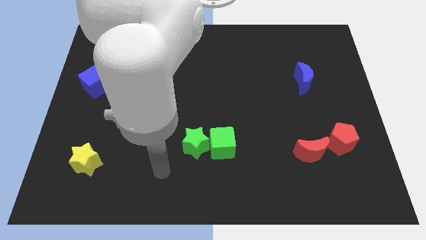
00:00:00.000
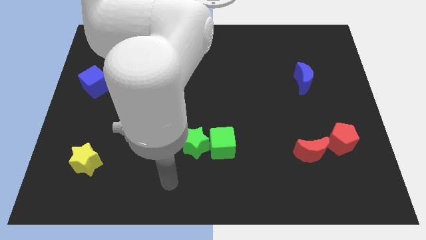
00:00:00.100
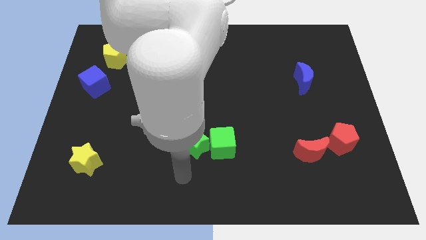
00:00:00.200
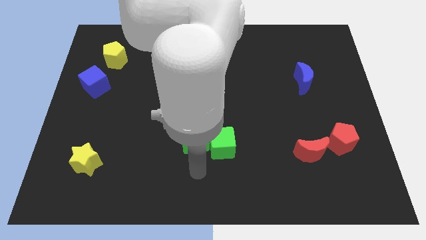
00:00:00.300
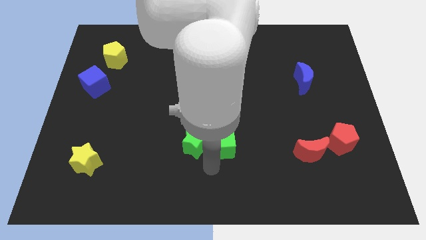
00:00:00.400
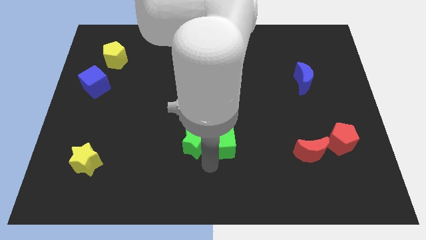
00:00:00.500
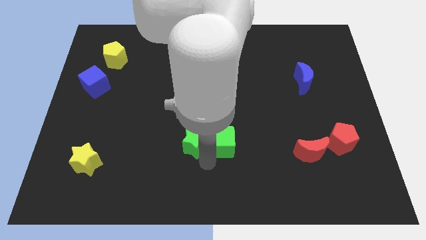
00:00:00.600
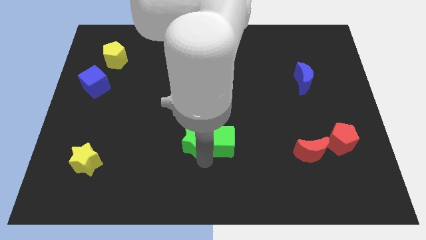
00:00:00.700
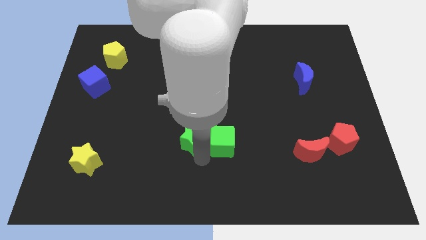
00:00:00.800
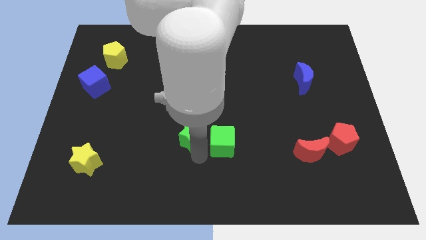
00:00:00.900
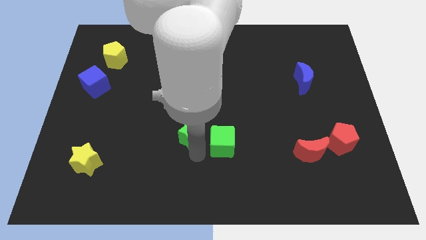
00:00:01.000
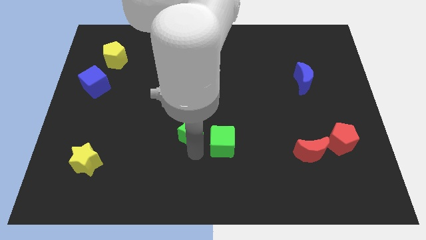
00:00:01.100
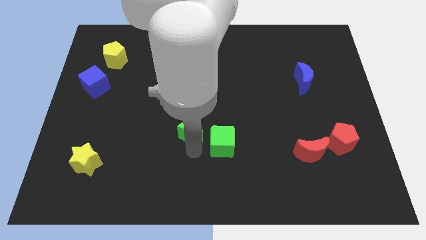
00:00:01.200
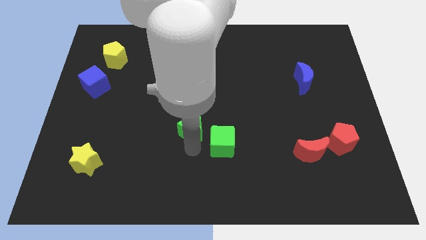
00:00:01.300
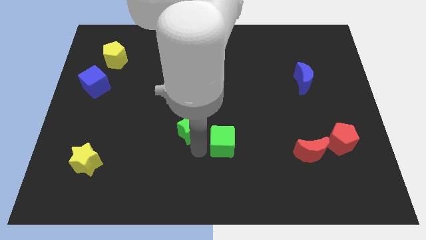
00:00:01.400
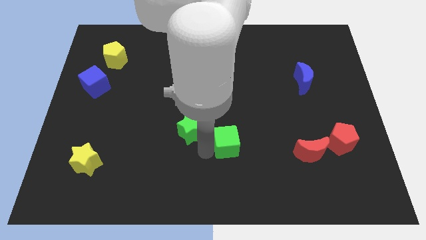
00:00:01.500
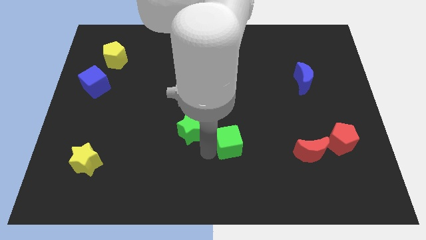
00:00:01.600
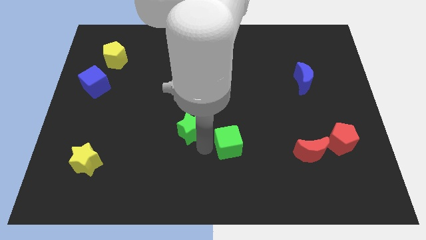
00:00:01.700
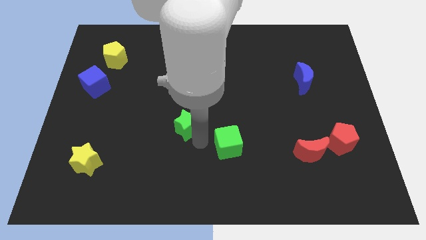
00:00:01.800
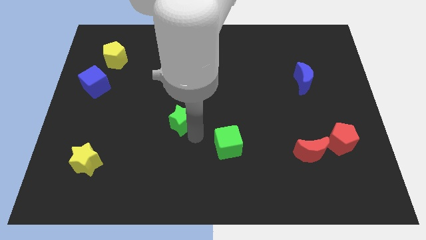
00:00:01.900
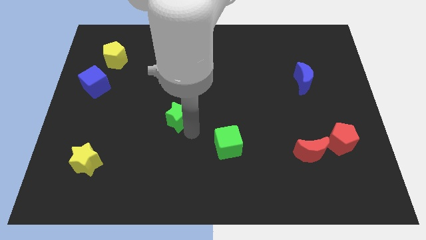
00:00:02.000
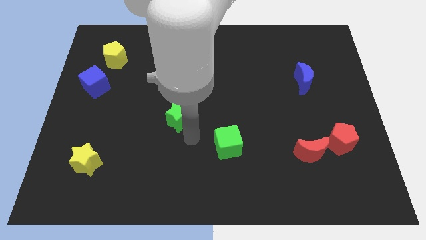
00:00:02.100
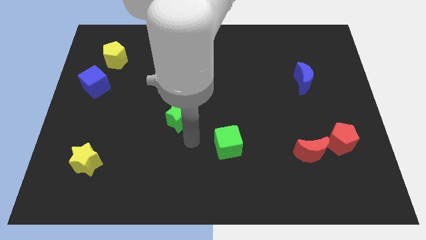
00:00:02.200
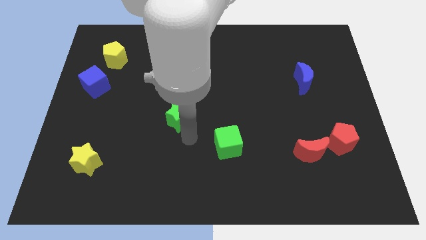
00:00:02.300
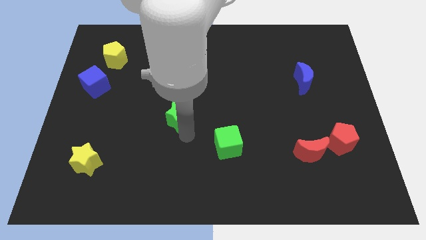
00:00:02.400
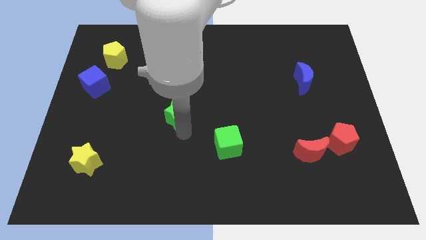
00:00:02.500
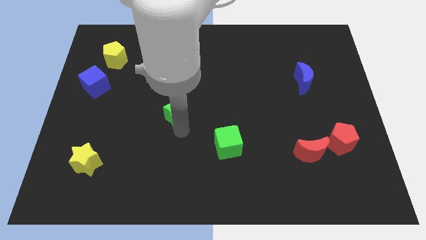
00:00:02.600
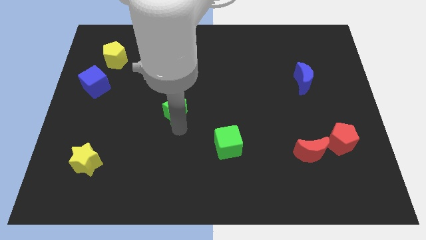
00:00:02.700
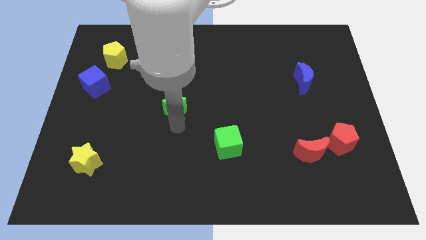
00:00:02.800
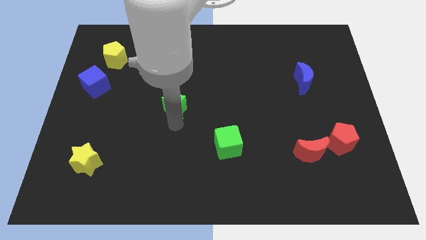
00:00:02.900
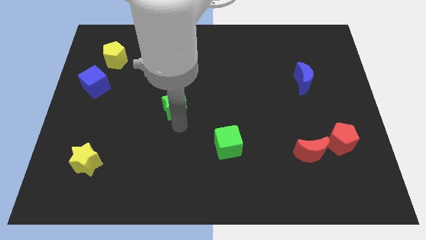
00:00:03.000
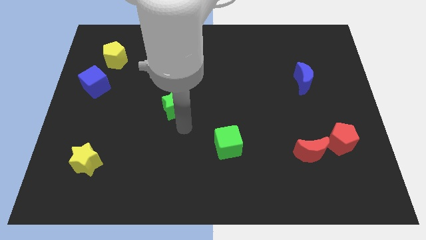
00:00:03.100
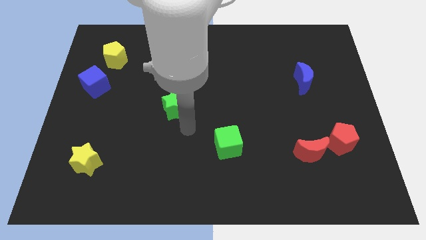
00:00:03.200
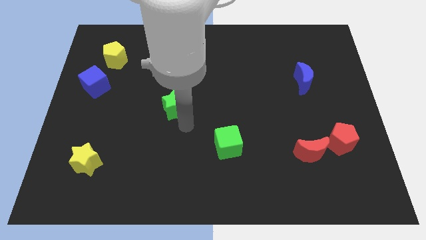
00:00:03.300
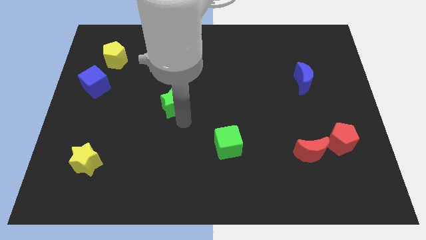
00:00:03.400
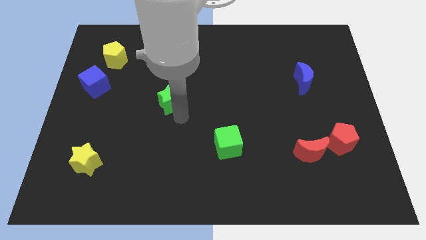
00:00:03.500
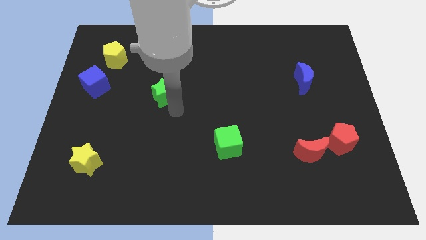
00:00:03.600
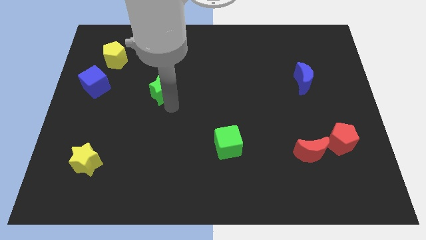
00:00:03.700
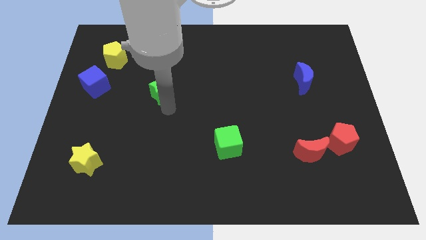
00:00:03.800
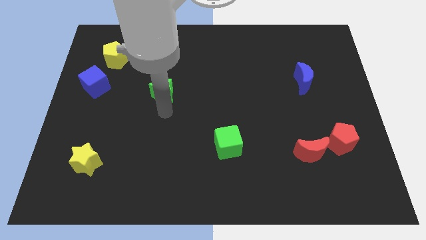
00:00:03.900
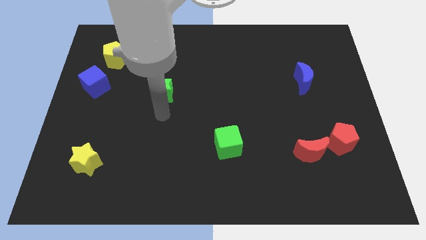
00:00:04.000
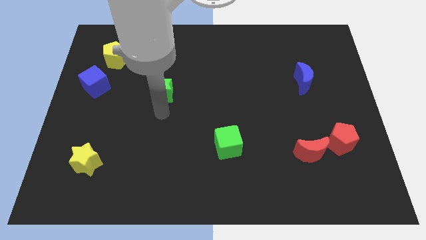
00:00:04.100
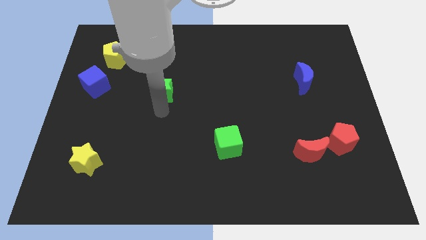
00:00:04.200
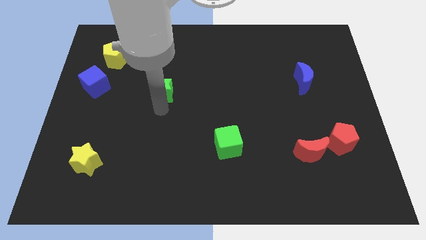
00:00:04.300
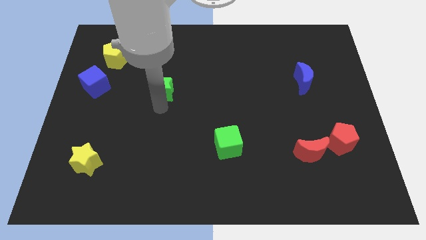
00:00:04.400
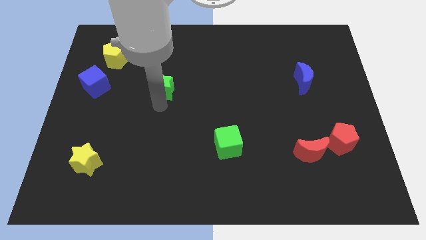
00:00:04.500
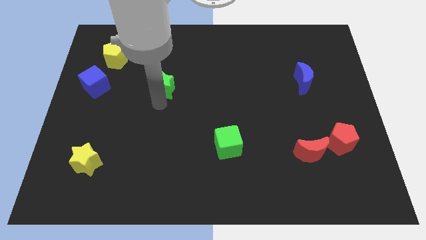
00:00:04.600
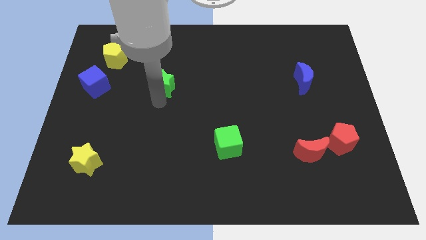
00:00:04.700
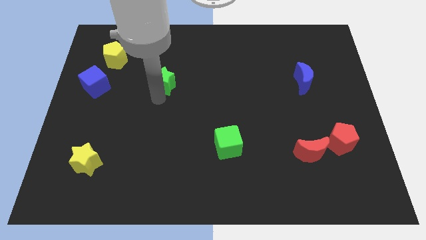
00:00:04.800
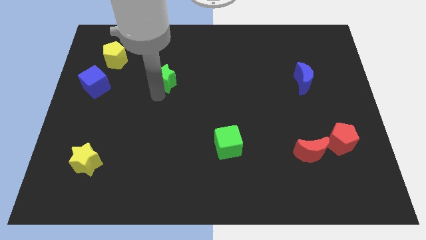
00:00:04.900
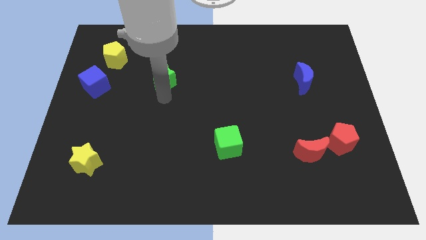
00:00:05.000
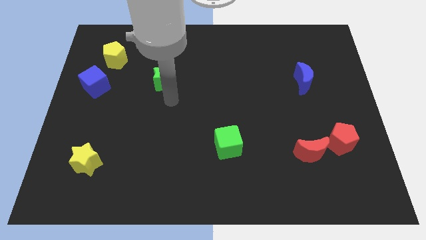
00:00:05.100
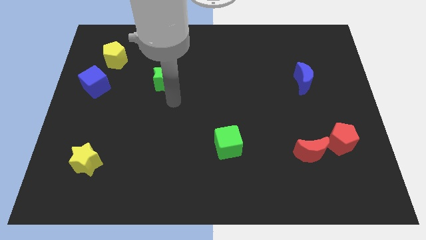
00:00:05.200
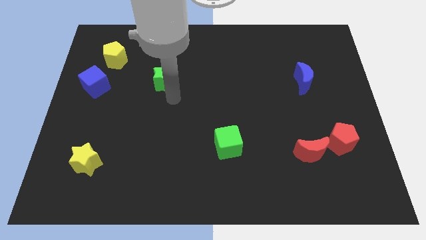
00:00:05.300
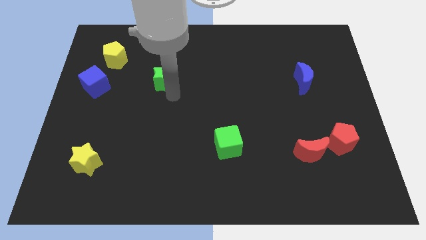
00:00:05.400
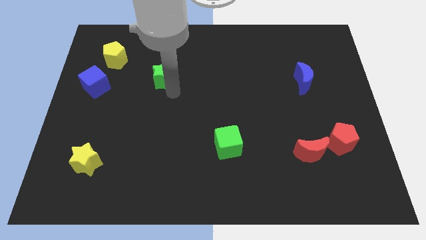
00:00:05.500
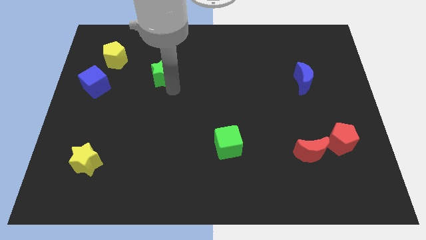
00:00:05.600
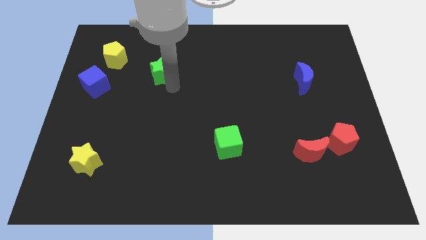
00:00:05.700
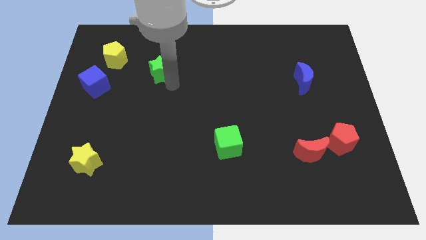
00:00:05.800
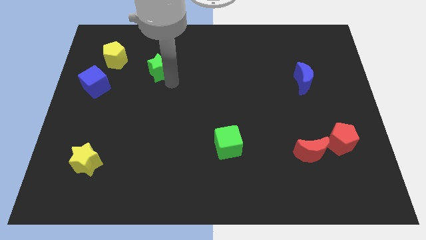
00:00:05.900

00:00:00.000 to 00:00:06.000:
slide the green star to the right of the yellow pentagon

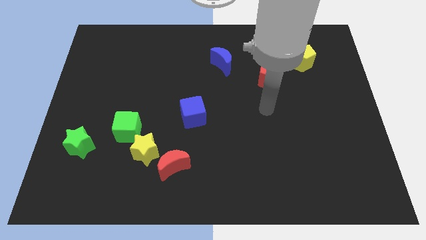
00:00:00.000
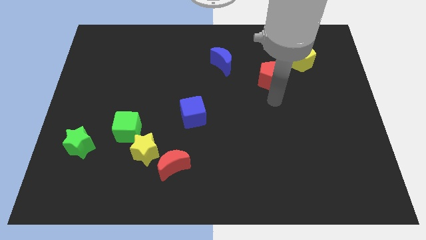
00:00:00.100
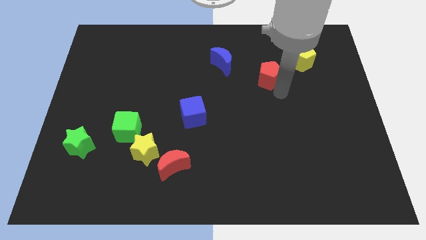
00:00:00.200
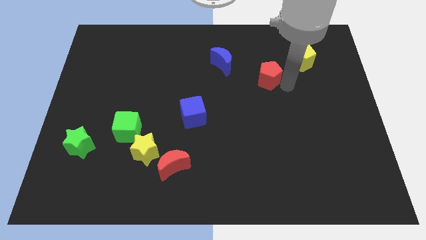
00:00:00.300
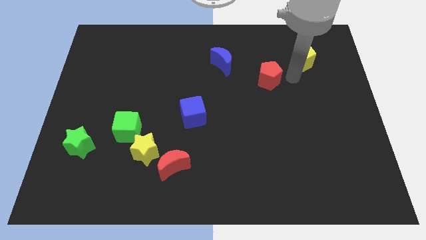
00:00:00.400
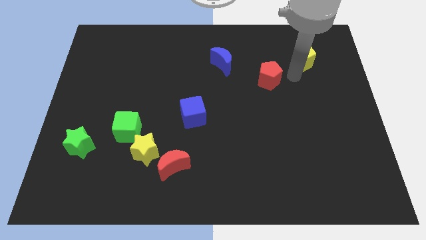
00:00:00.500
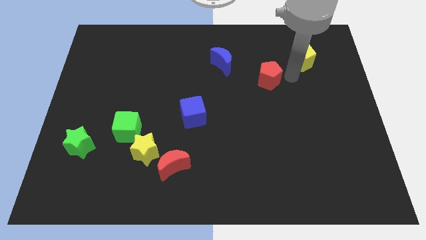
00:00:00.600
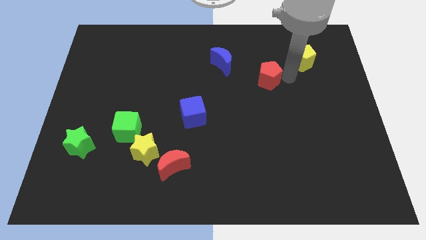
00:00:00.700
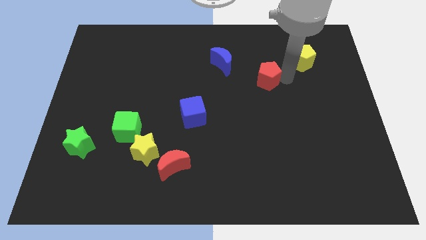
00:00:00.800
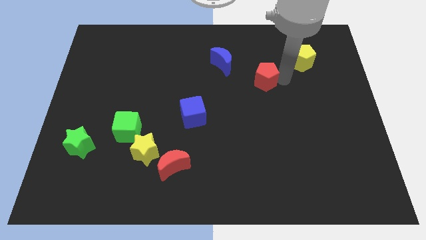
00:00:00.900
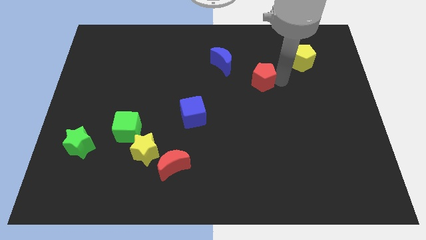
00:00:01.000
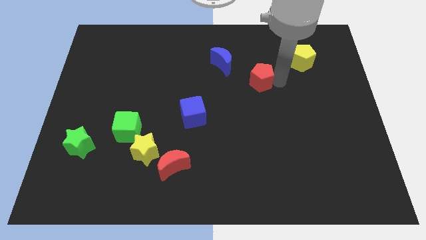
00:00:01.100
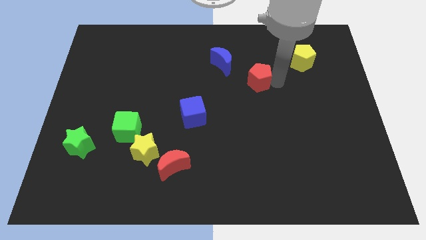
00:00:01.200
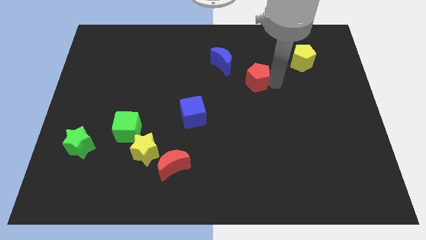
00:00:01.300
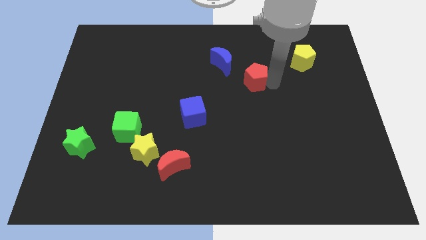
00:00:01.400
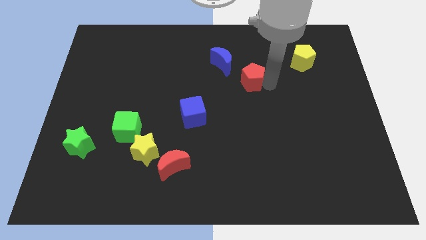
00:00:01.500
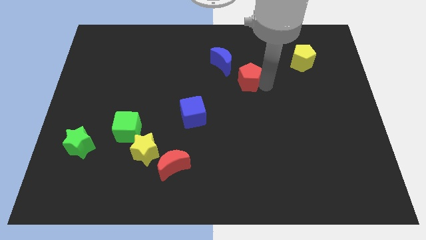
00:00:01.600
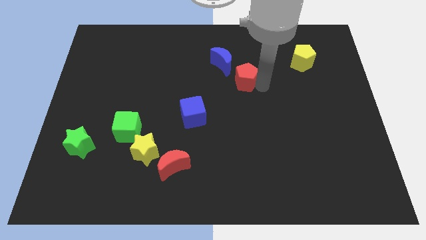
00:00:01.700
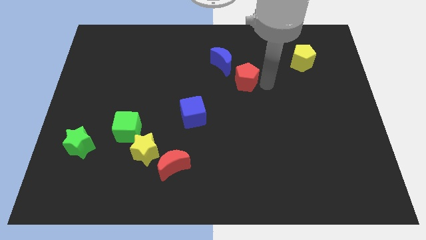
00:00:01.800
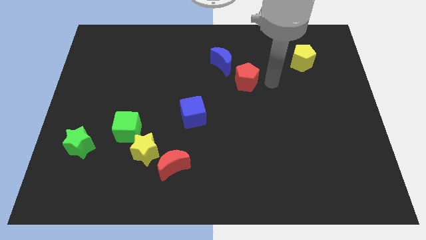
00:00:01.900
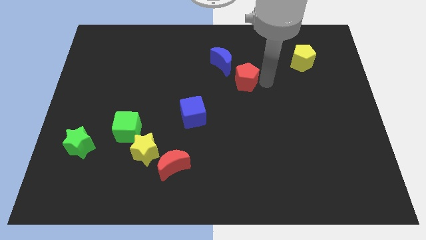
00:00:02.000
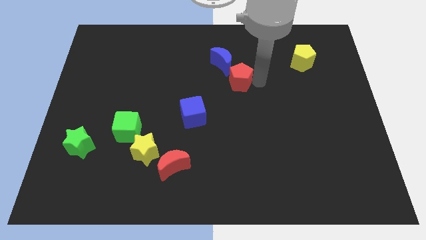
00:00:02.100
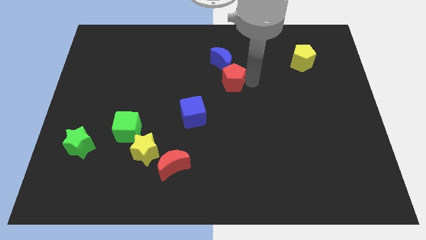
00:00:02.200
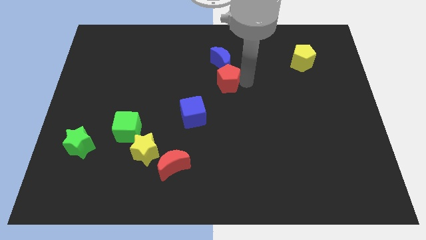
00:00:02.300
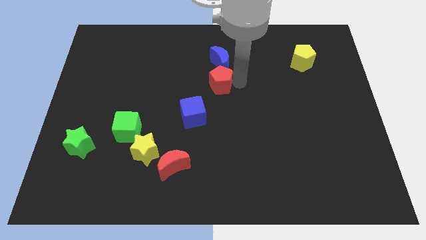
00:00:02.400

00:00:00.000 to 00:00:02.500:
put the red pentagon to the bottom left of the blue moon
